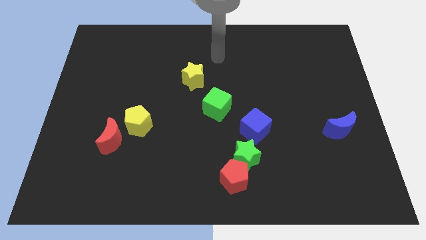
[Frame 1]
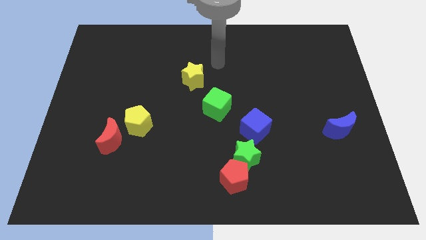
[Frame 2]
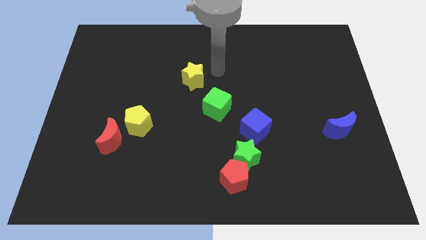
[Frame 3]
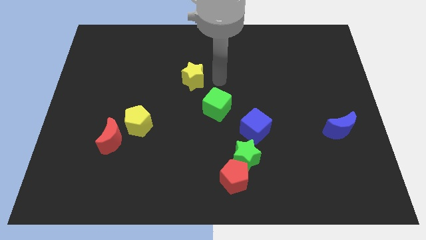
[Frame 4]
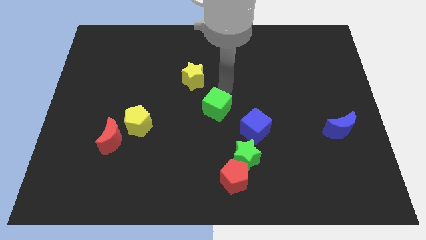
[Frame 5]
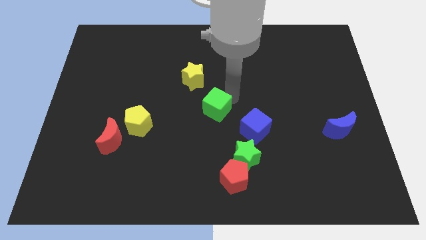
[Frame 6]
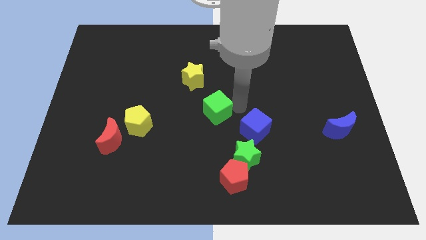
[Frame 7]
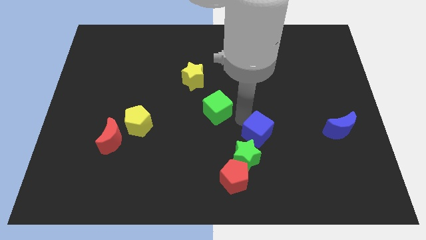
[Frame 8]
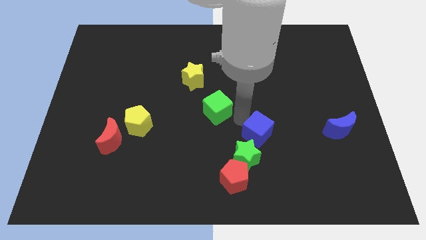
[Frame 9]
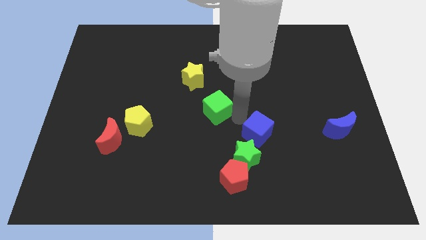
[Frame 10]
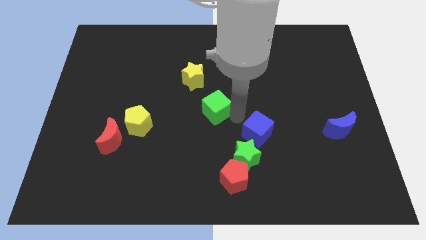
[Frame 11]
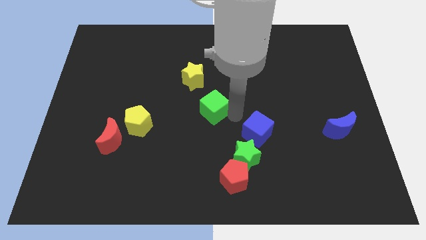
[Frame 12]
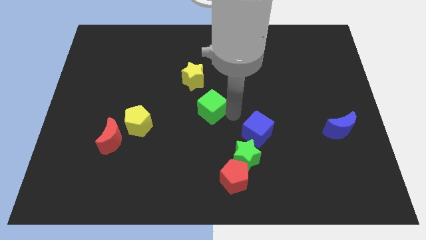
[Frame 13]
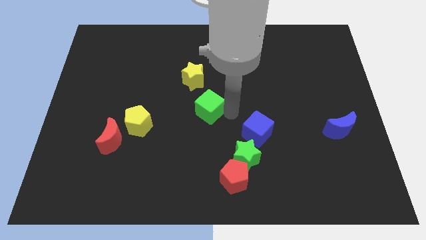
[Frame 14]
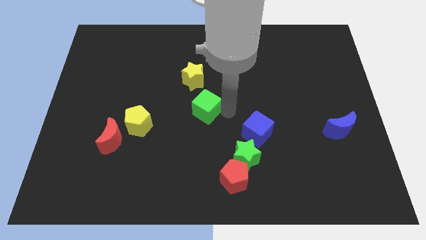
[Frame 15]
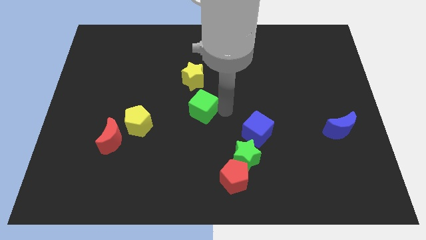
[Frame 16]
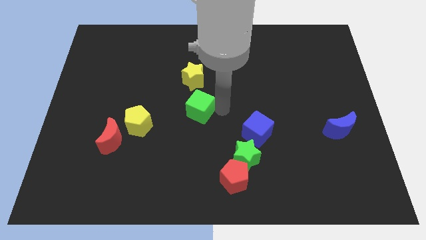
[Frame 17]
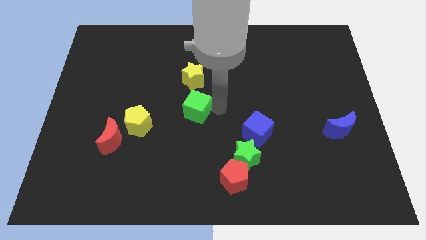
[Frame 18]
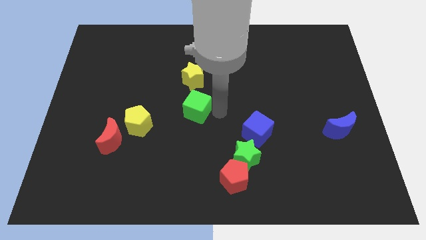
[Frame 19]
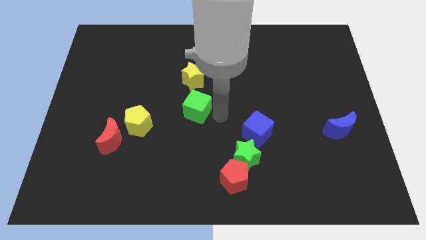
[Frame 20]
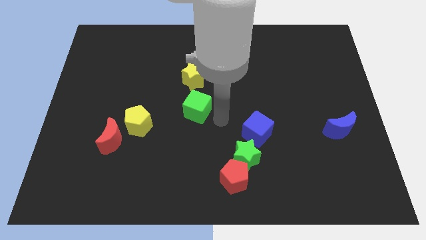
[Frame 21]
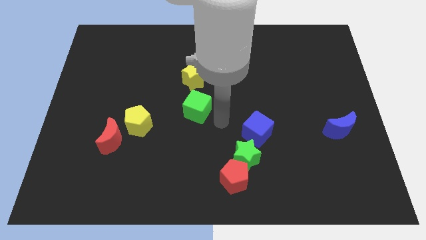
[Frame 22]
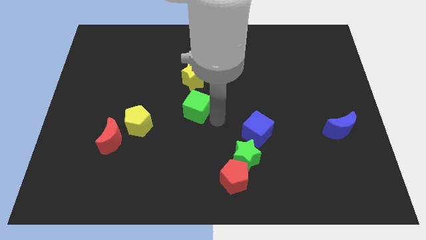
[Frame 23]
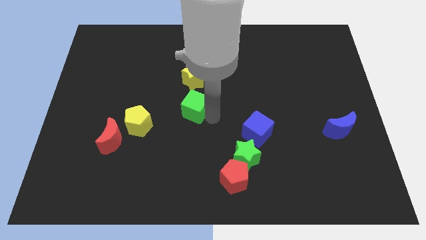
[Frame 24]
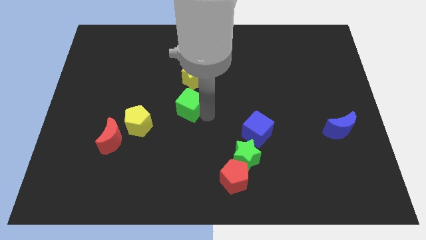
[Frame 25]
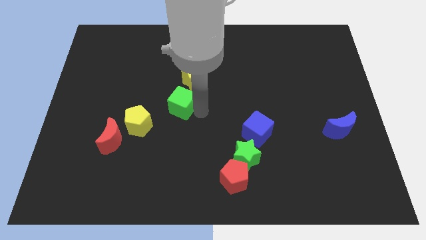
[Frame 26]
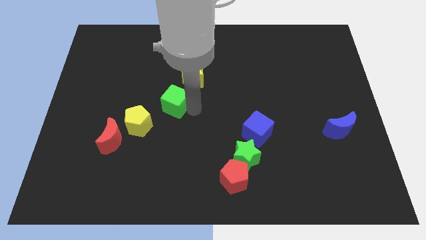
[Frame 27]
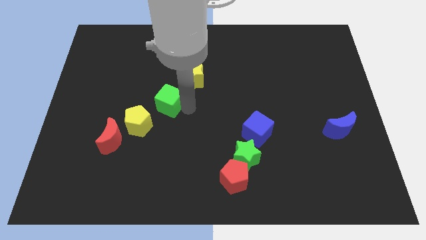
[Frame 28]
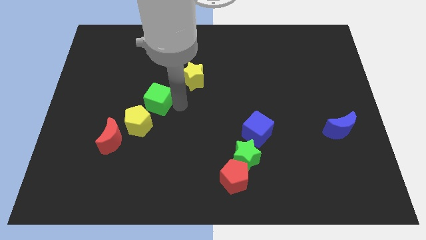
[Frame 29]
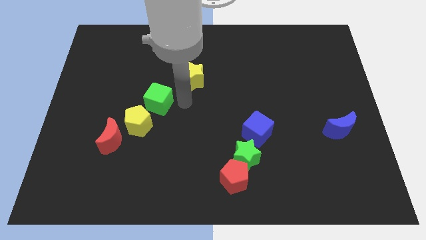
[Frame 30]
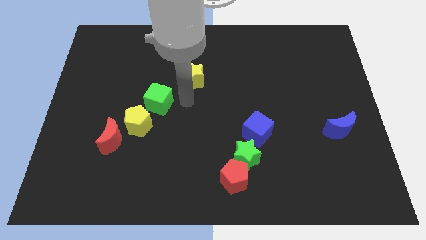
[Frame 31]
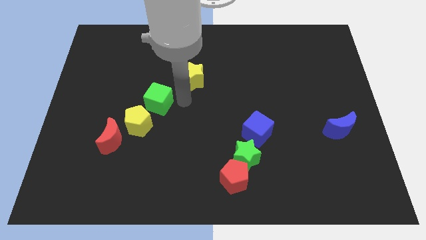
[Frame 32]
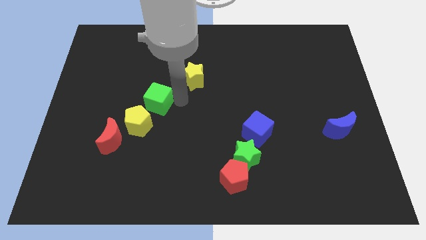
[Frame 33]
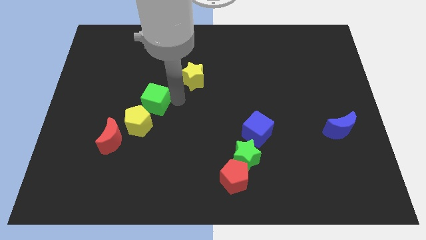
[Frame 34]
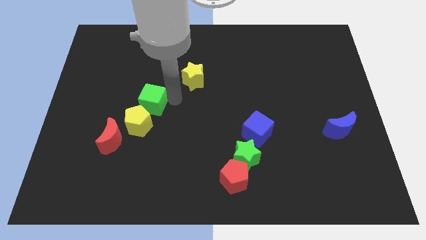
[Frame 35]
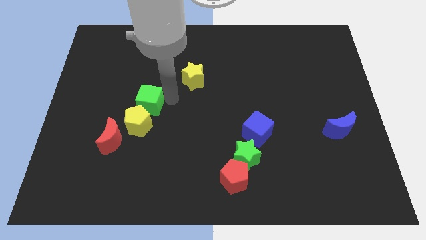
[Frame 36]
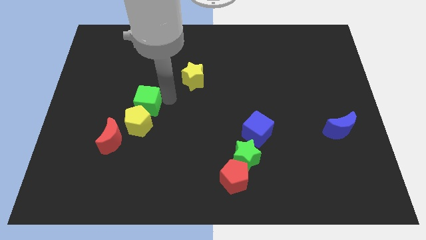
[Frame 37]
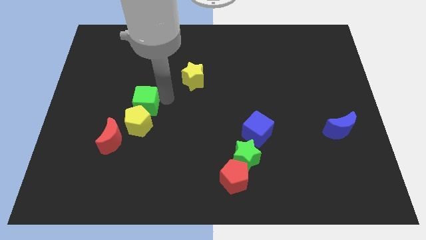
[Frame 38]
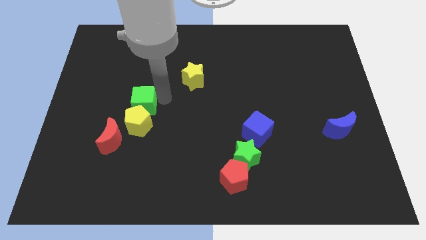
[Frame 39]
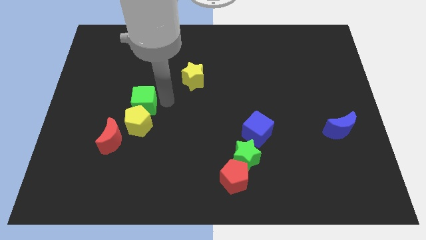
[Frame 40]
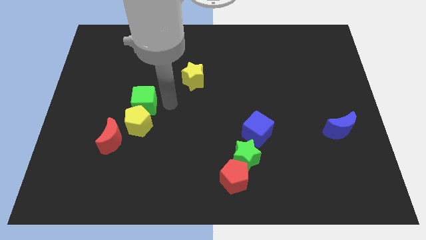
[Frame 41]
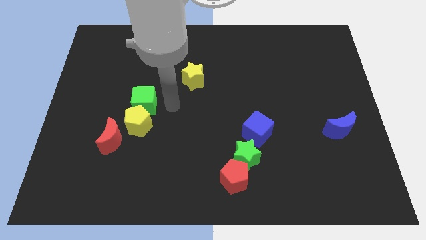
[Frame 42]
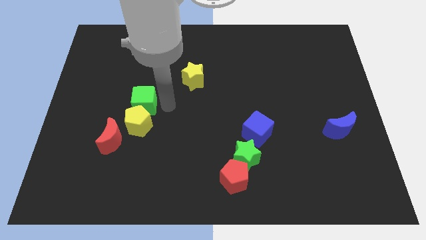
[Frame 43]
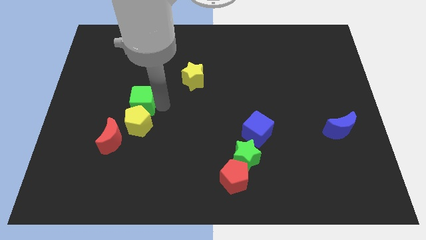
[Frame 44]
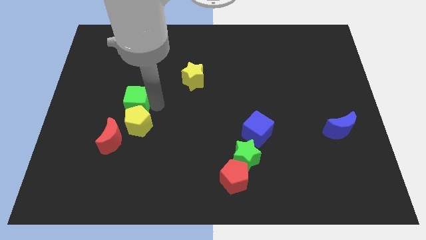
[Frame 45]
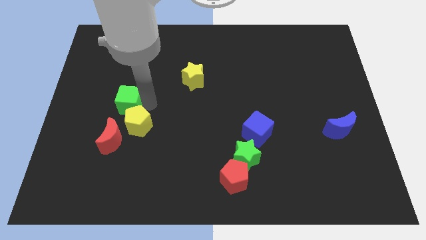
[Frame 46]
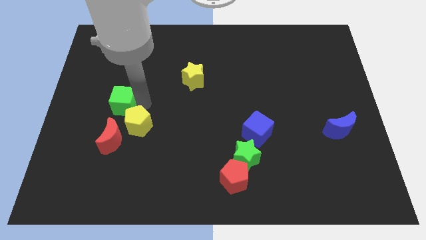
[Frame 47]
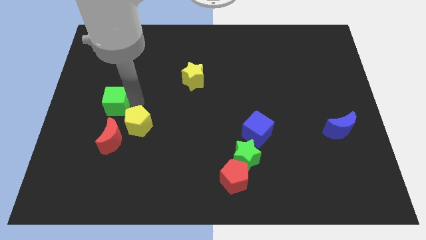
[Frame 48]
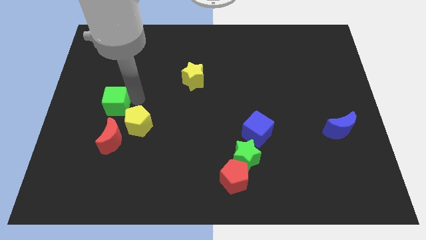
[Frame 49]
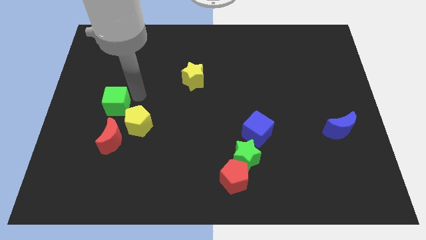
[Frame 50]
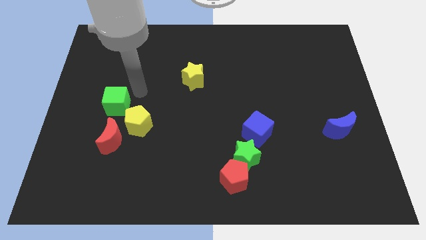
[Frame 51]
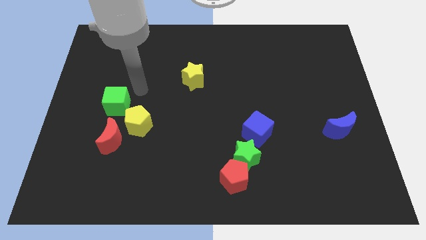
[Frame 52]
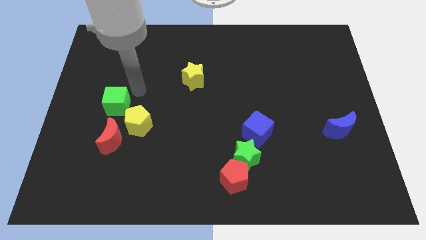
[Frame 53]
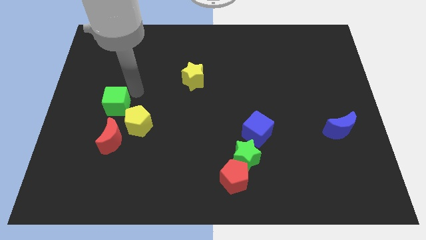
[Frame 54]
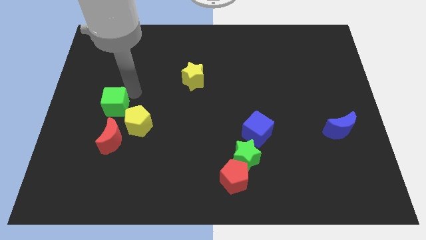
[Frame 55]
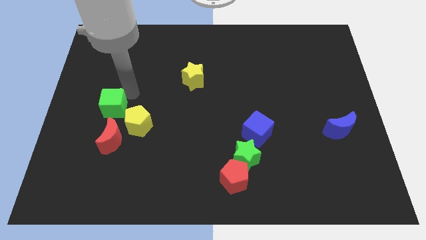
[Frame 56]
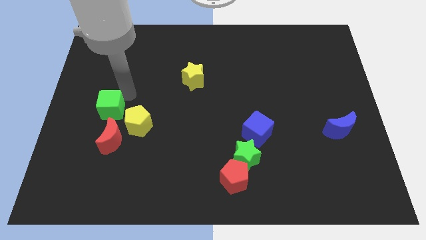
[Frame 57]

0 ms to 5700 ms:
put the green cube left of the yellow pentagon

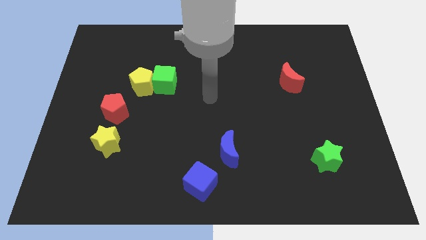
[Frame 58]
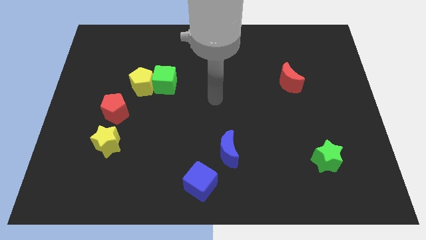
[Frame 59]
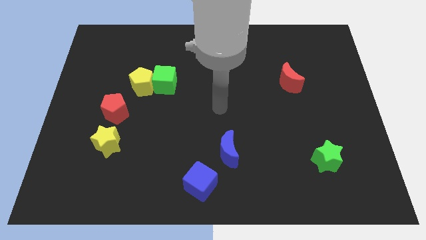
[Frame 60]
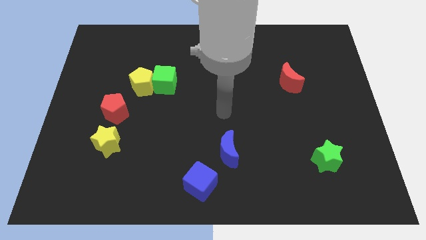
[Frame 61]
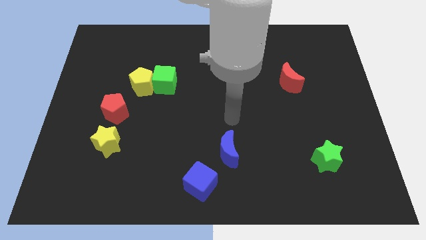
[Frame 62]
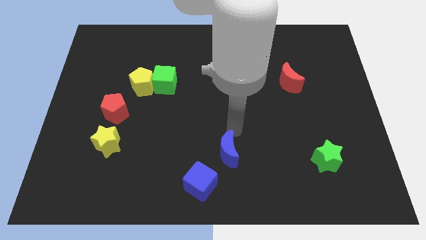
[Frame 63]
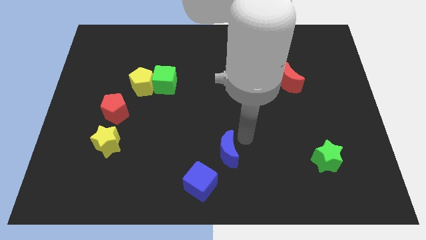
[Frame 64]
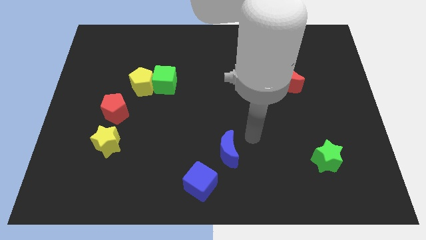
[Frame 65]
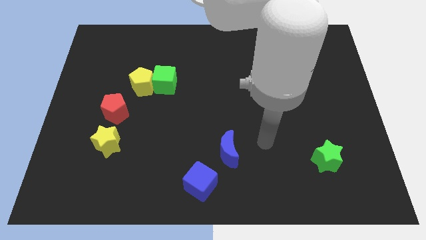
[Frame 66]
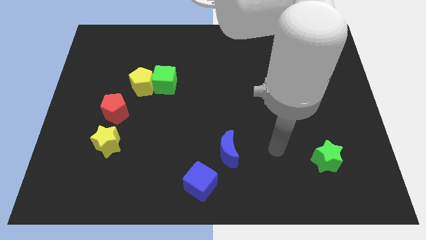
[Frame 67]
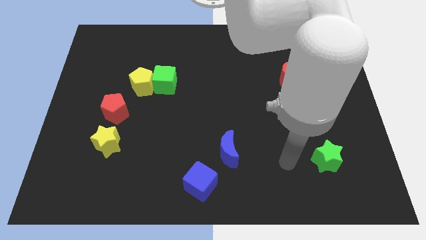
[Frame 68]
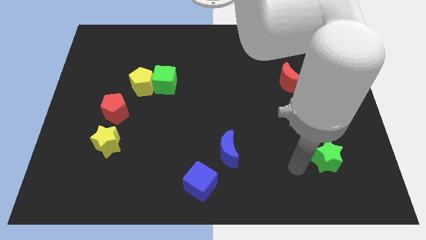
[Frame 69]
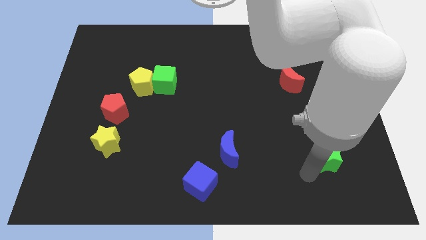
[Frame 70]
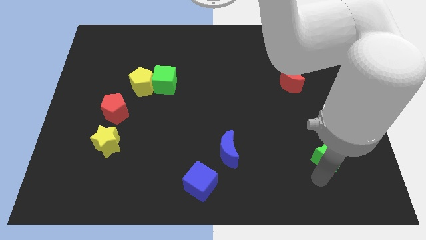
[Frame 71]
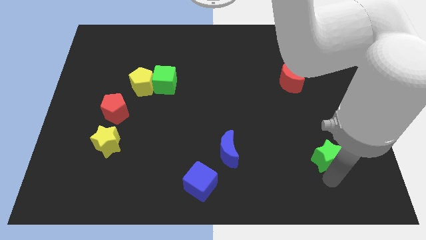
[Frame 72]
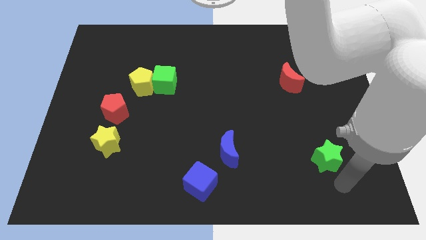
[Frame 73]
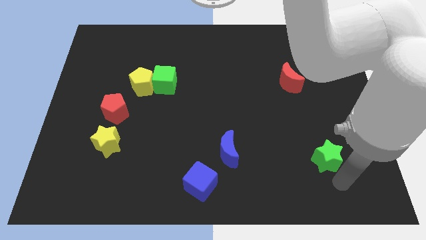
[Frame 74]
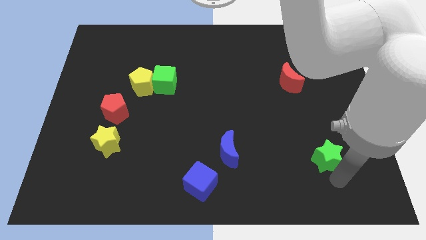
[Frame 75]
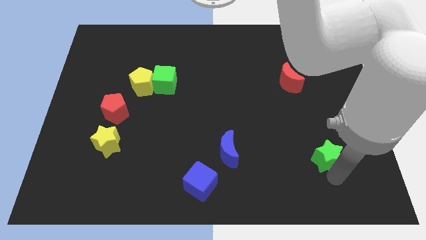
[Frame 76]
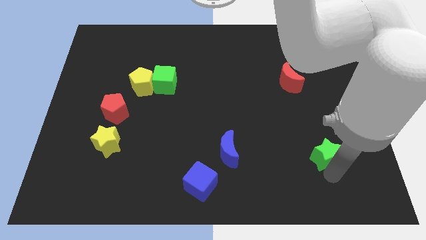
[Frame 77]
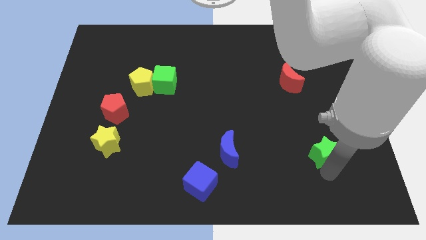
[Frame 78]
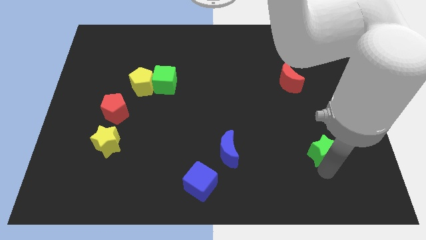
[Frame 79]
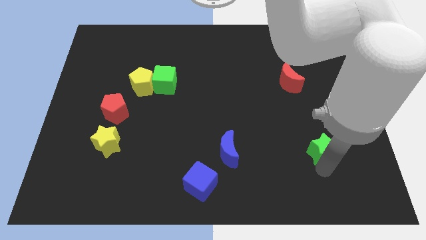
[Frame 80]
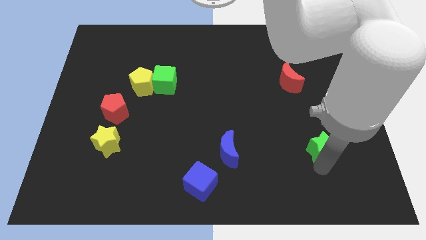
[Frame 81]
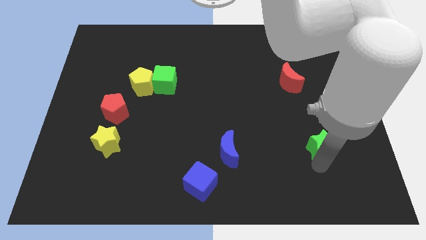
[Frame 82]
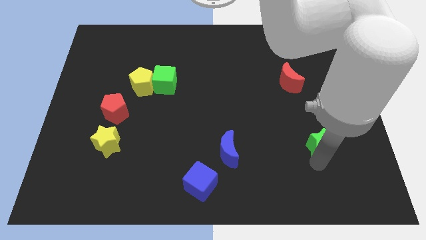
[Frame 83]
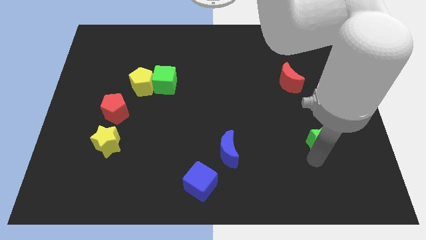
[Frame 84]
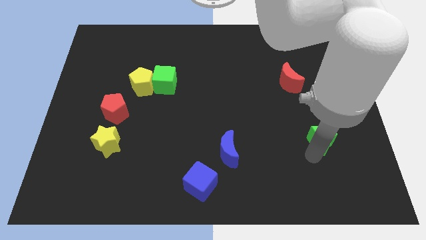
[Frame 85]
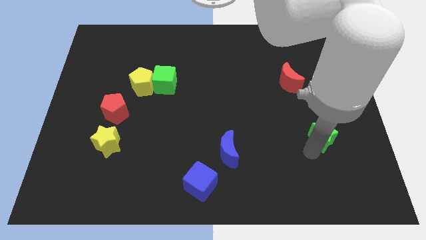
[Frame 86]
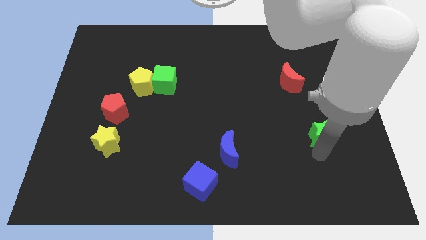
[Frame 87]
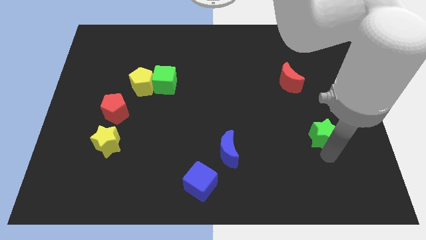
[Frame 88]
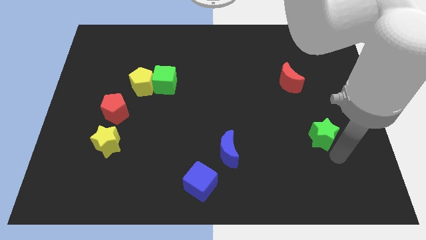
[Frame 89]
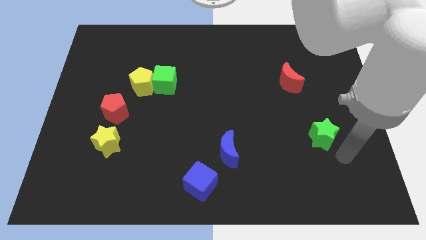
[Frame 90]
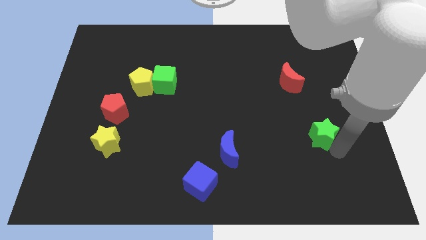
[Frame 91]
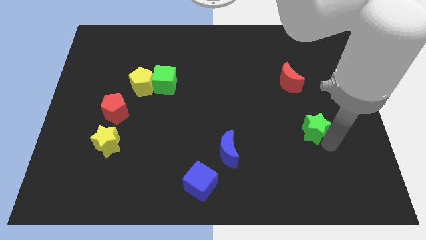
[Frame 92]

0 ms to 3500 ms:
push the green star below the red moon
